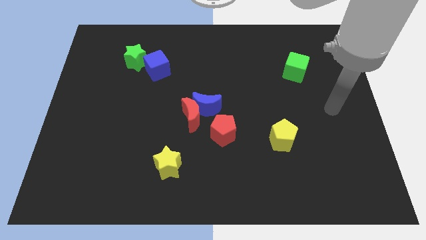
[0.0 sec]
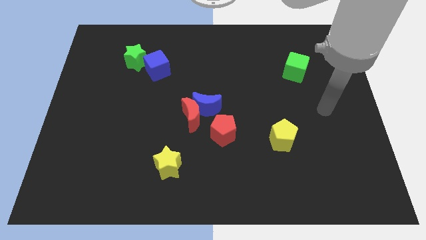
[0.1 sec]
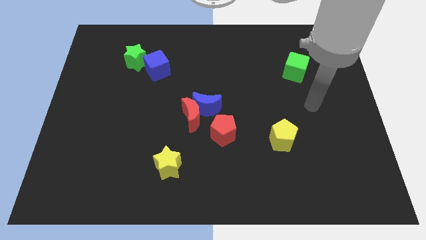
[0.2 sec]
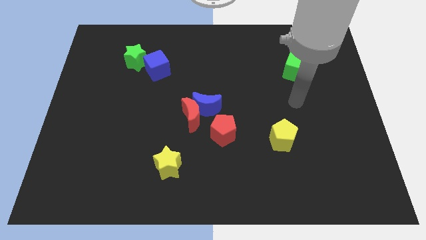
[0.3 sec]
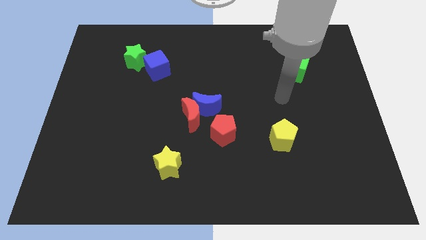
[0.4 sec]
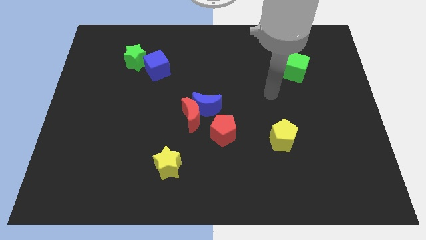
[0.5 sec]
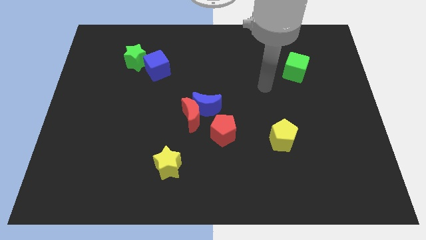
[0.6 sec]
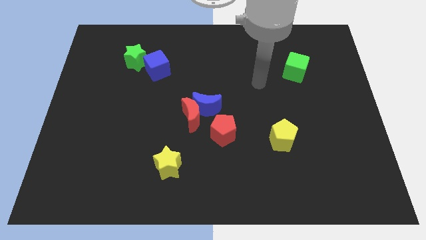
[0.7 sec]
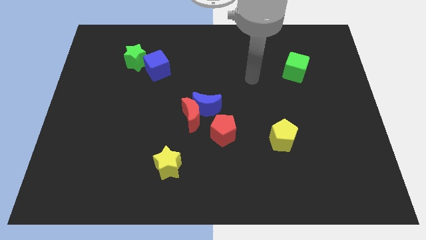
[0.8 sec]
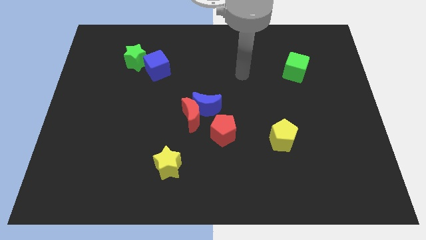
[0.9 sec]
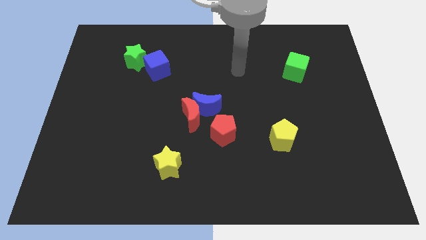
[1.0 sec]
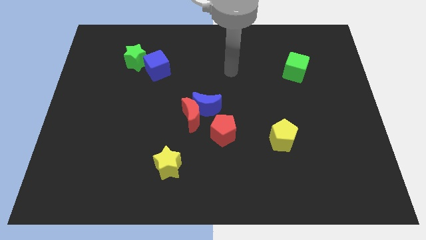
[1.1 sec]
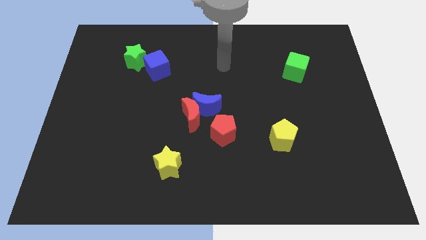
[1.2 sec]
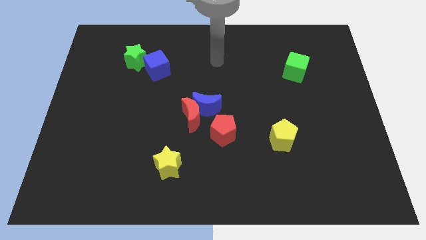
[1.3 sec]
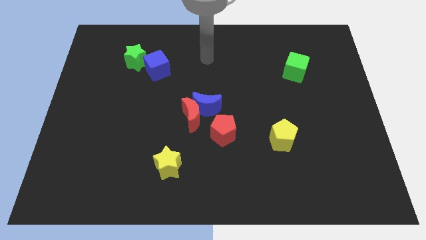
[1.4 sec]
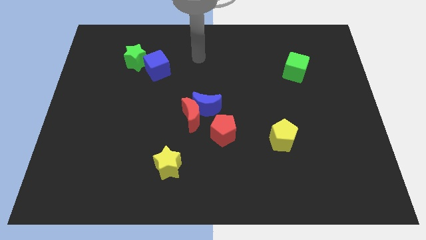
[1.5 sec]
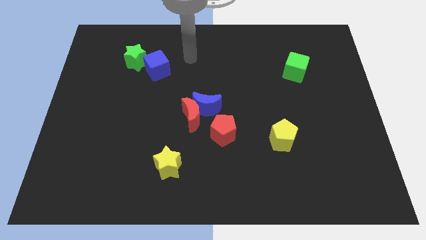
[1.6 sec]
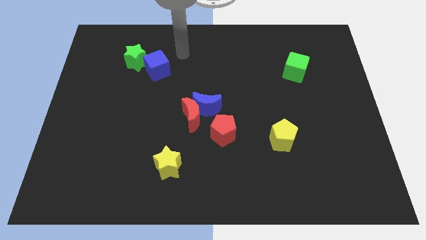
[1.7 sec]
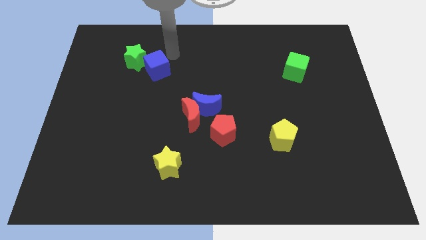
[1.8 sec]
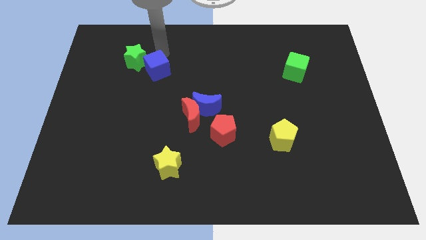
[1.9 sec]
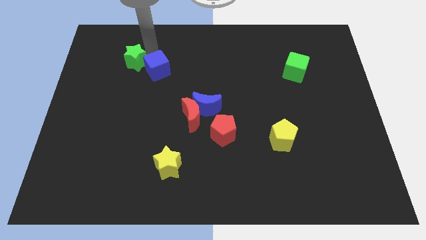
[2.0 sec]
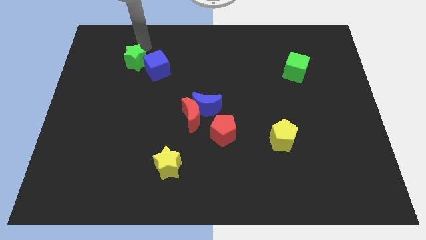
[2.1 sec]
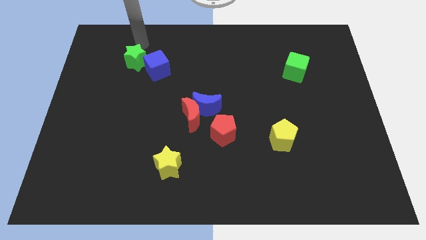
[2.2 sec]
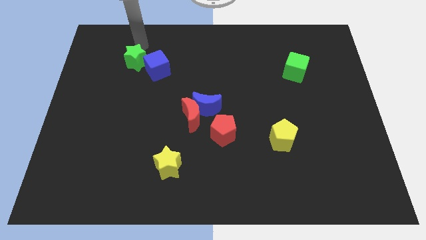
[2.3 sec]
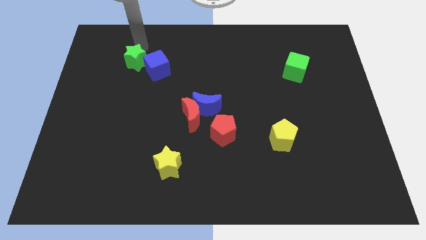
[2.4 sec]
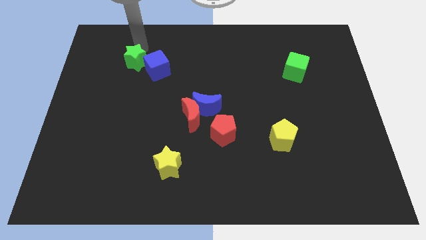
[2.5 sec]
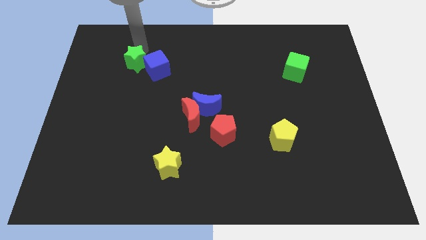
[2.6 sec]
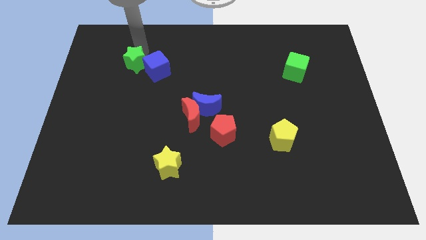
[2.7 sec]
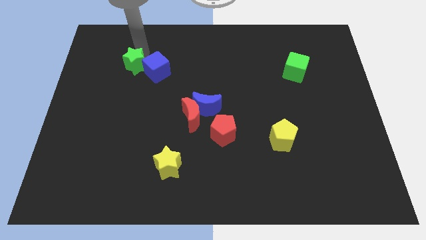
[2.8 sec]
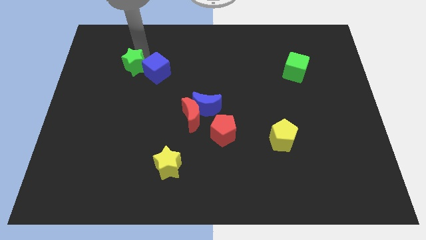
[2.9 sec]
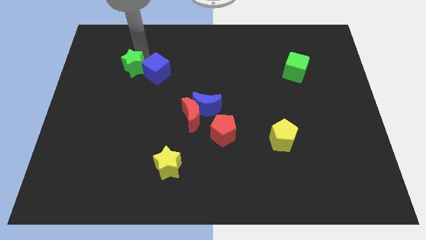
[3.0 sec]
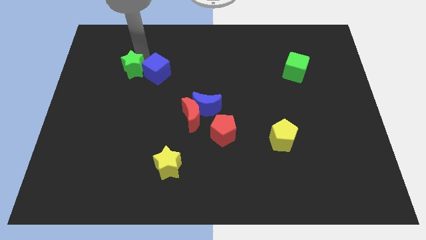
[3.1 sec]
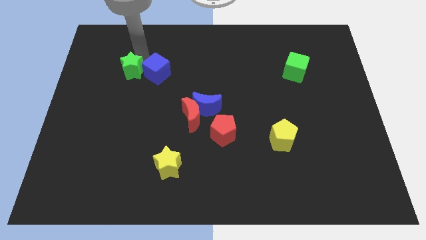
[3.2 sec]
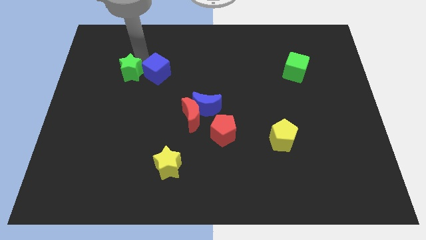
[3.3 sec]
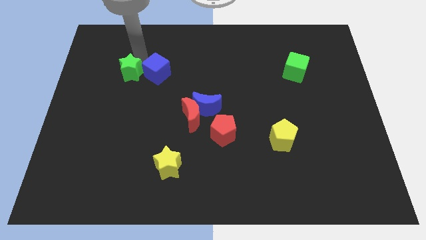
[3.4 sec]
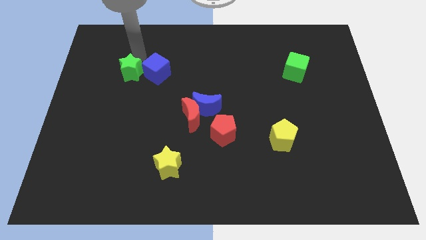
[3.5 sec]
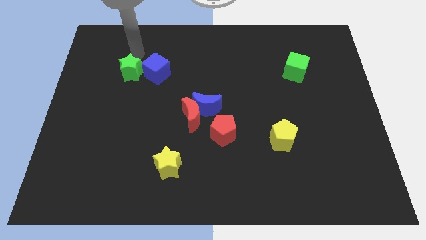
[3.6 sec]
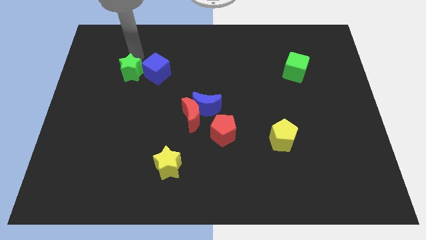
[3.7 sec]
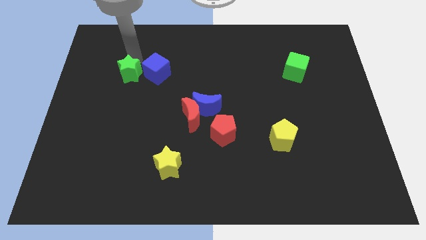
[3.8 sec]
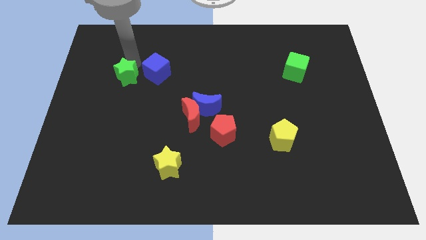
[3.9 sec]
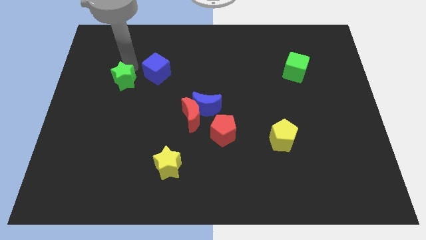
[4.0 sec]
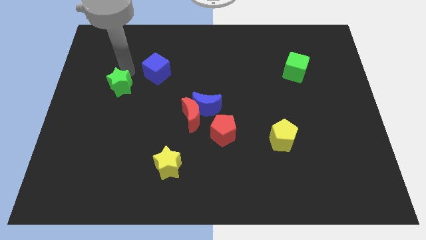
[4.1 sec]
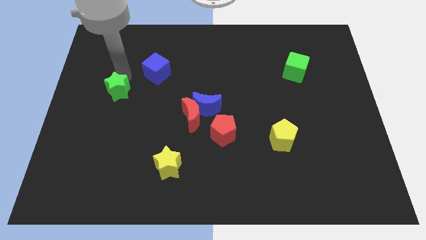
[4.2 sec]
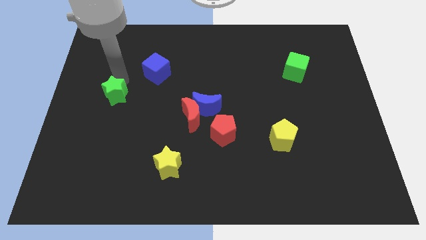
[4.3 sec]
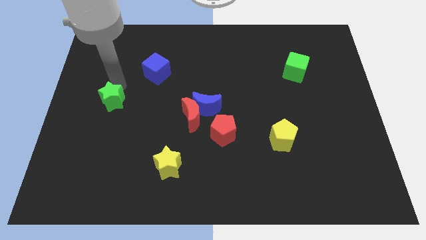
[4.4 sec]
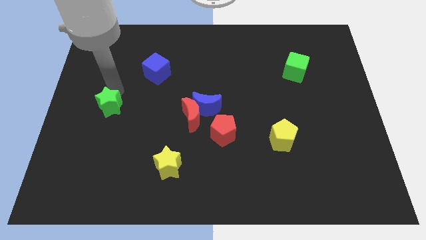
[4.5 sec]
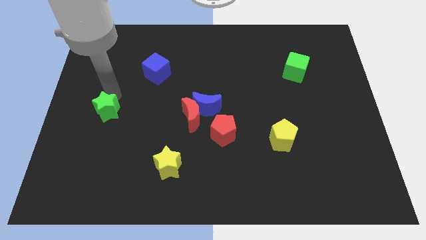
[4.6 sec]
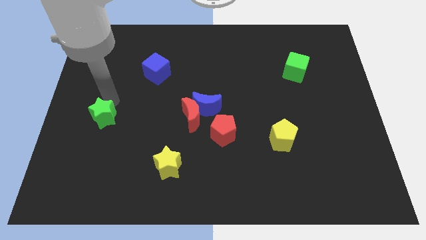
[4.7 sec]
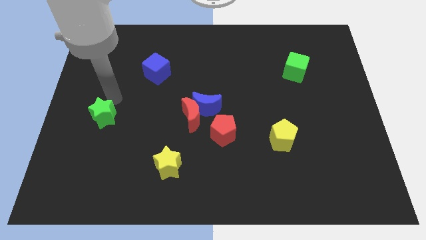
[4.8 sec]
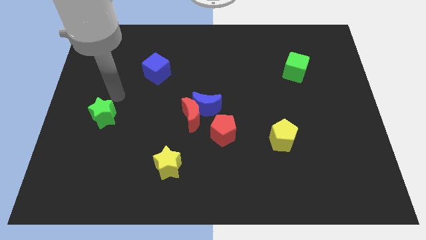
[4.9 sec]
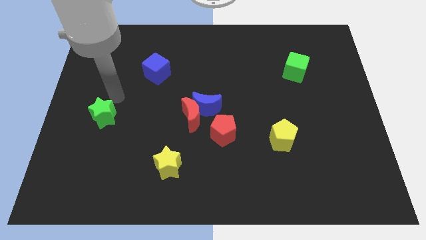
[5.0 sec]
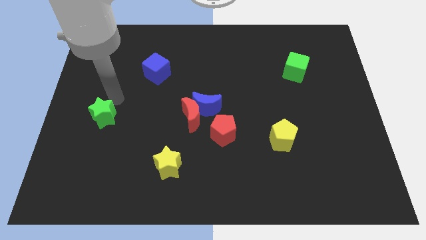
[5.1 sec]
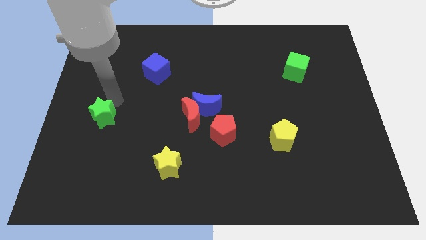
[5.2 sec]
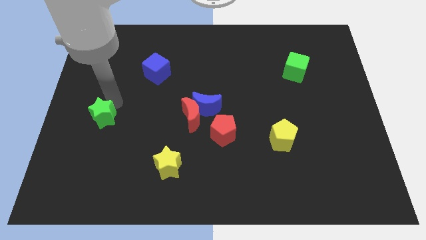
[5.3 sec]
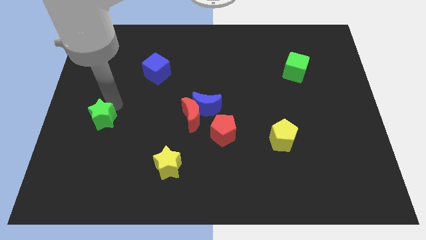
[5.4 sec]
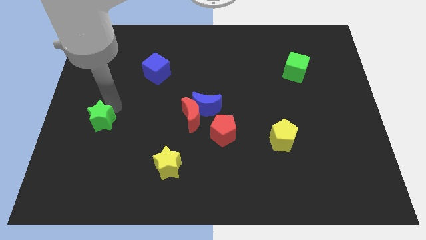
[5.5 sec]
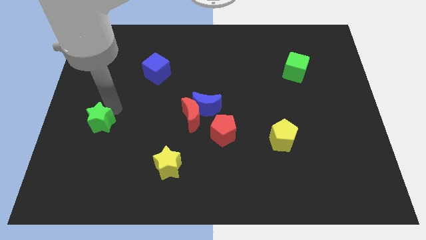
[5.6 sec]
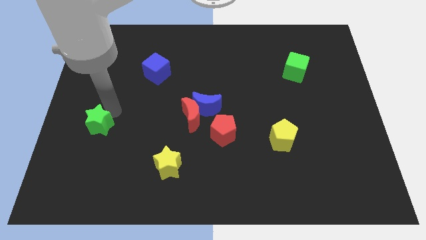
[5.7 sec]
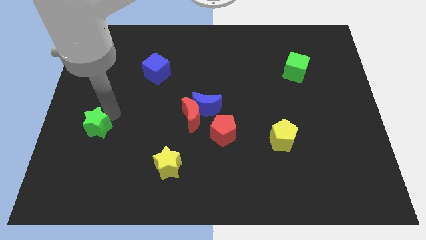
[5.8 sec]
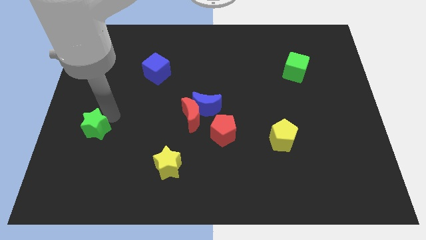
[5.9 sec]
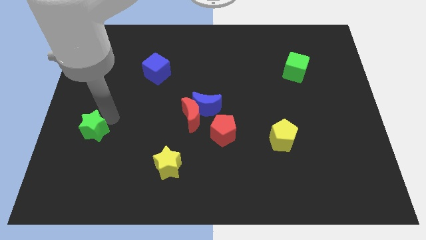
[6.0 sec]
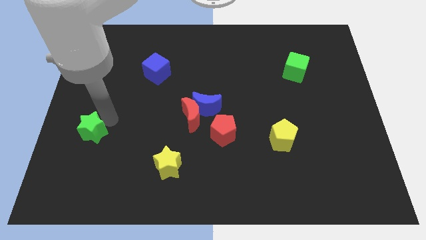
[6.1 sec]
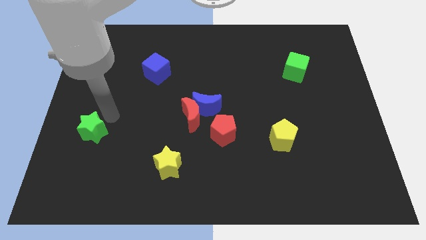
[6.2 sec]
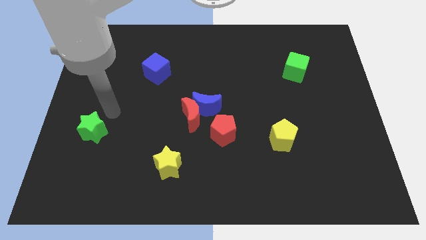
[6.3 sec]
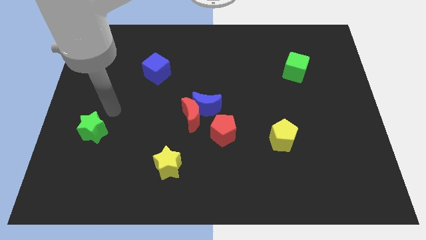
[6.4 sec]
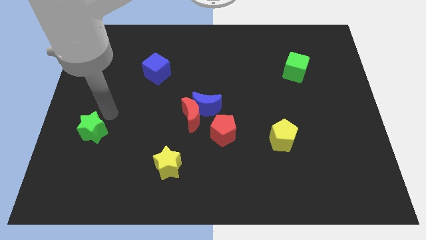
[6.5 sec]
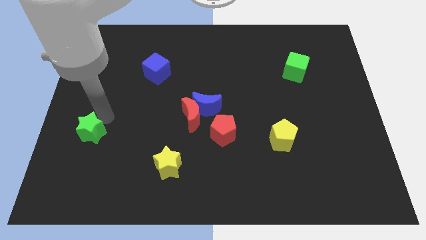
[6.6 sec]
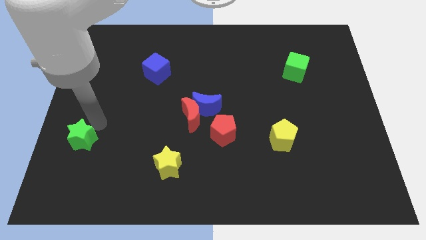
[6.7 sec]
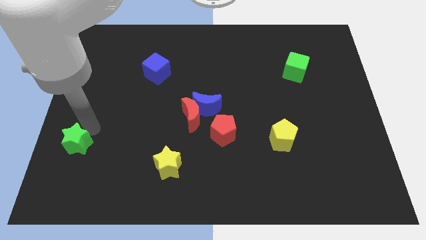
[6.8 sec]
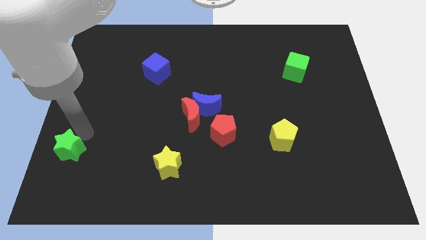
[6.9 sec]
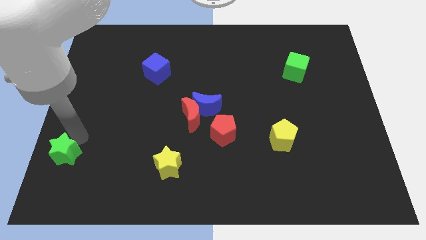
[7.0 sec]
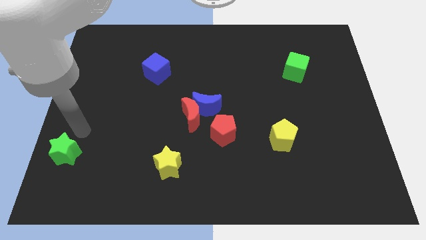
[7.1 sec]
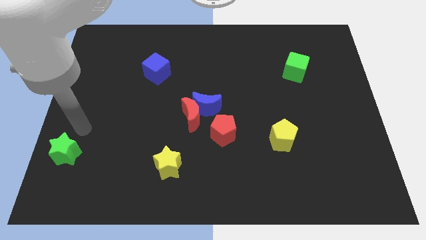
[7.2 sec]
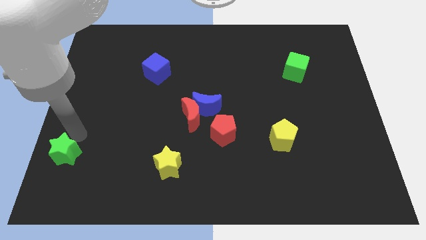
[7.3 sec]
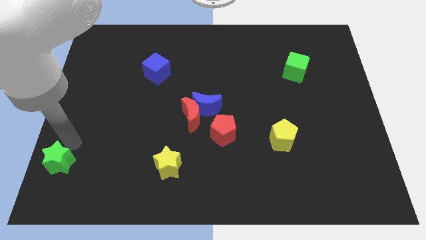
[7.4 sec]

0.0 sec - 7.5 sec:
push the green star to the lower left corner
